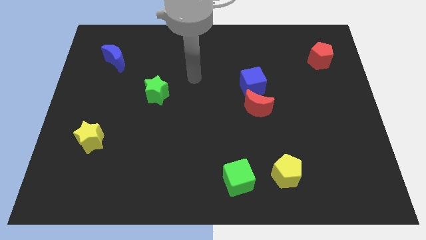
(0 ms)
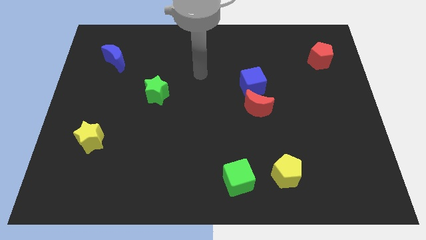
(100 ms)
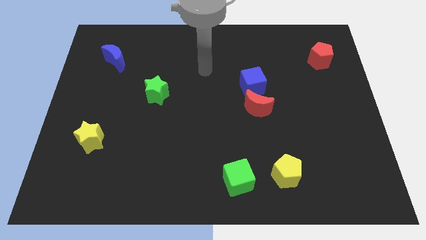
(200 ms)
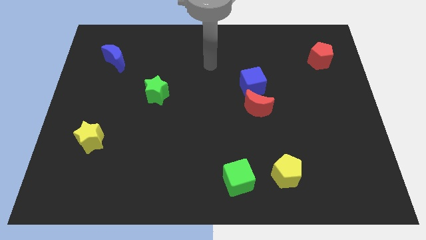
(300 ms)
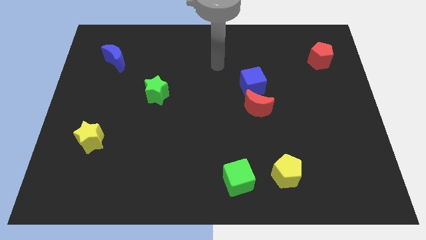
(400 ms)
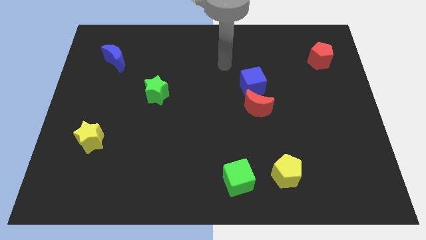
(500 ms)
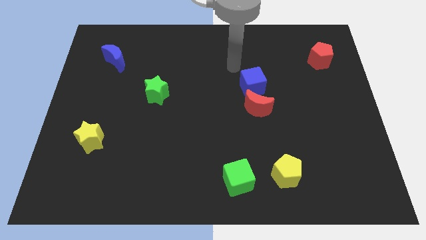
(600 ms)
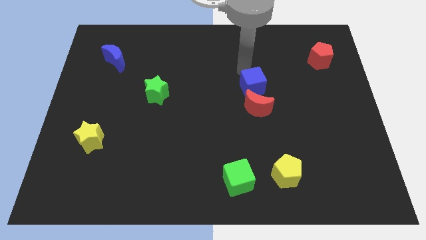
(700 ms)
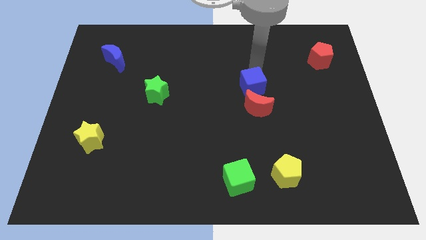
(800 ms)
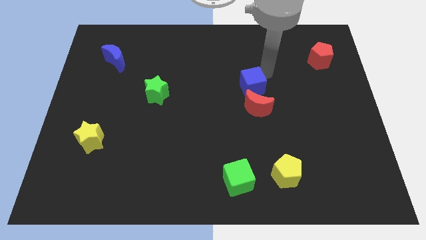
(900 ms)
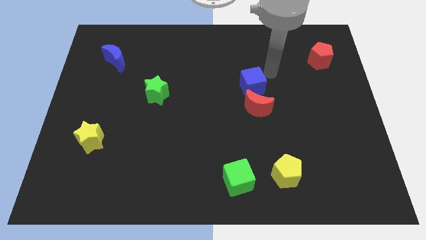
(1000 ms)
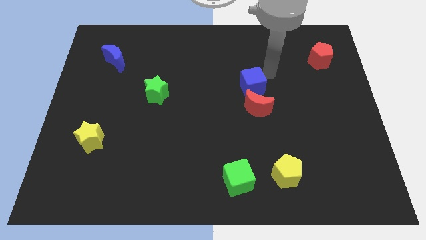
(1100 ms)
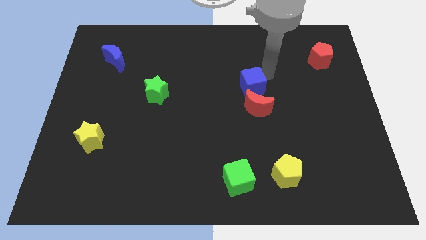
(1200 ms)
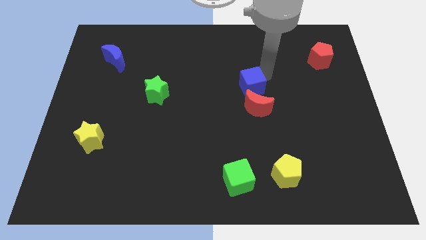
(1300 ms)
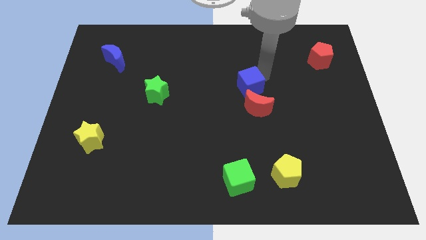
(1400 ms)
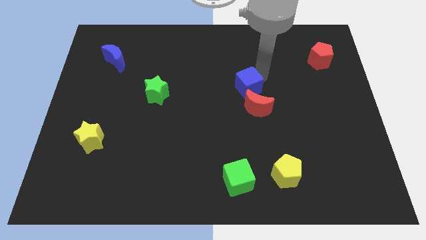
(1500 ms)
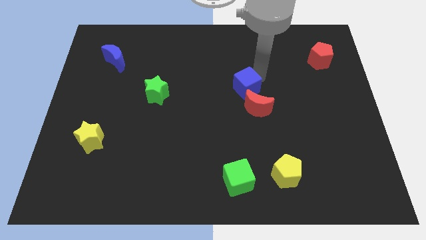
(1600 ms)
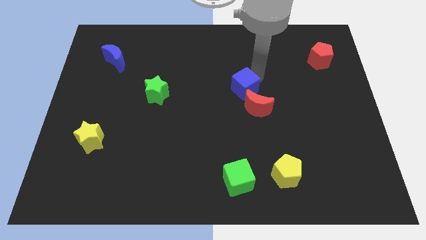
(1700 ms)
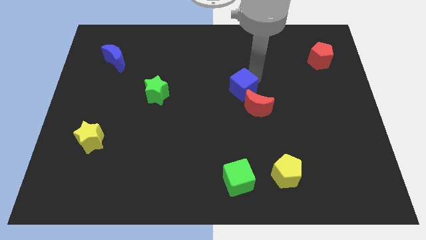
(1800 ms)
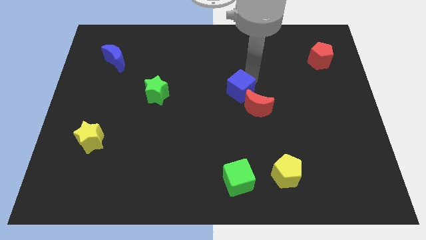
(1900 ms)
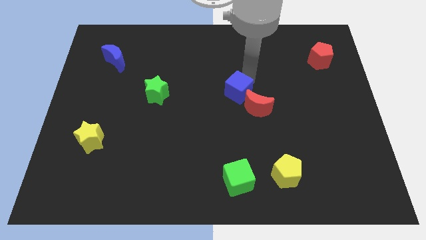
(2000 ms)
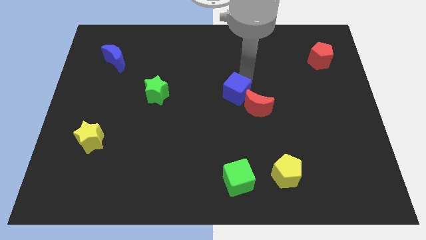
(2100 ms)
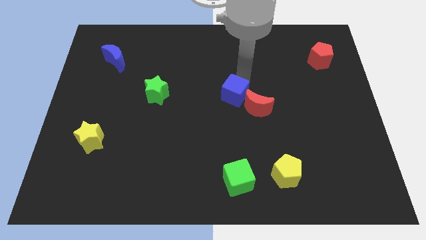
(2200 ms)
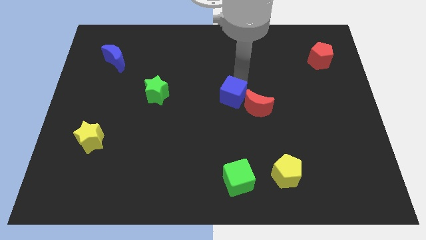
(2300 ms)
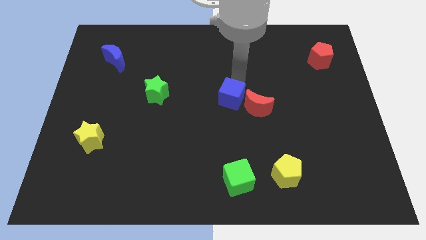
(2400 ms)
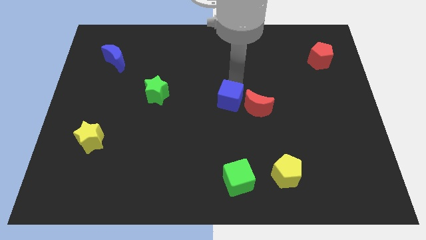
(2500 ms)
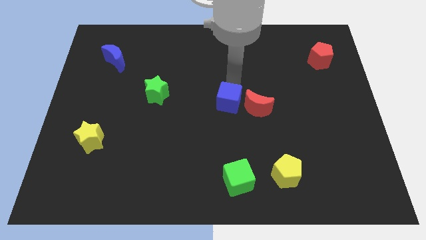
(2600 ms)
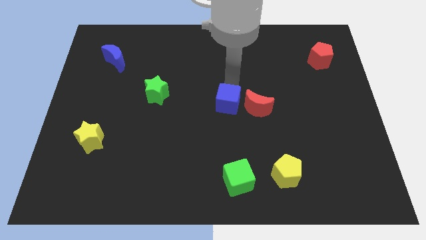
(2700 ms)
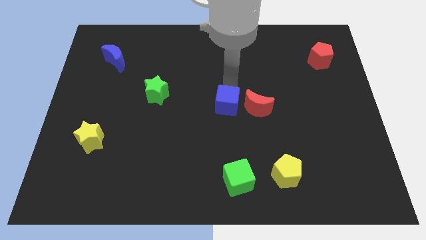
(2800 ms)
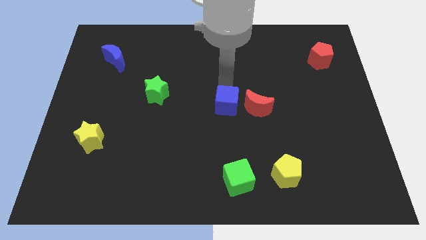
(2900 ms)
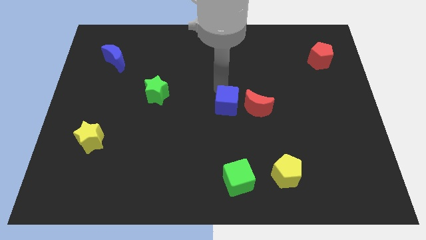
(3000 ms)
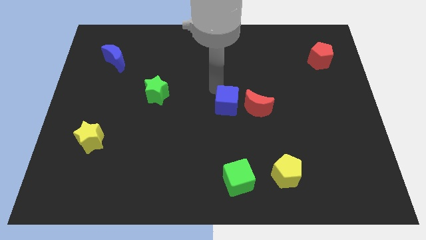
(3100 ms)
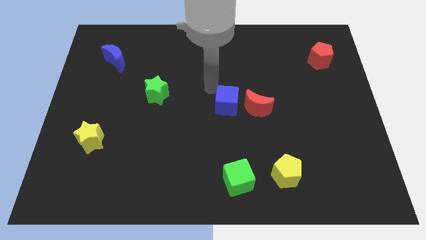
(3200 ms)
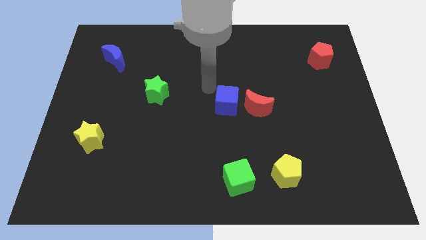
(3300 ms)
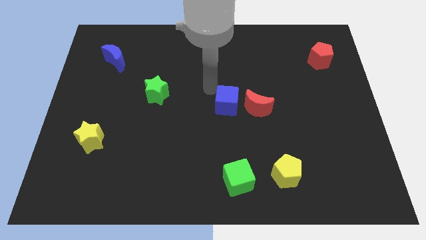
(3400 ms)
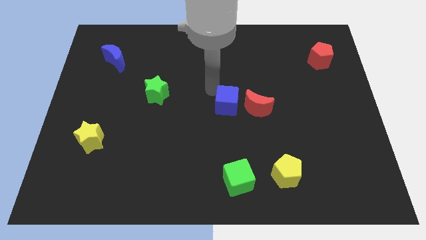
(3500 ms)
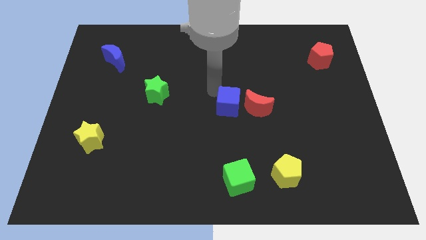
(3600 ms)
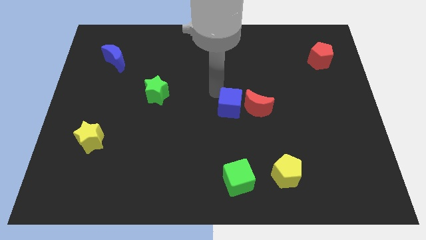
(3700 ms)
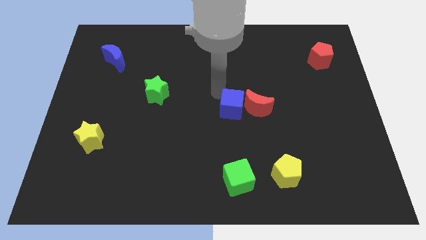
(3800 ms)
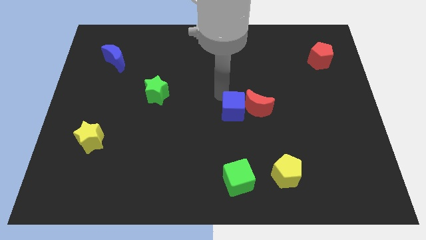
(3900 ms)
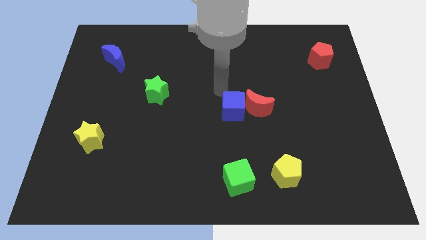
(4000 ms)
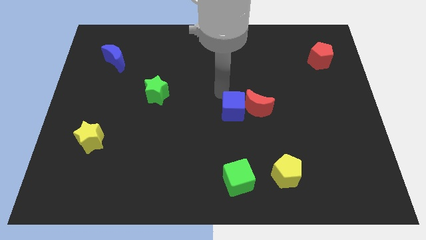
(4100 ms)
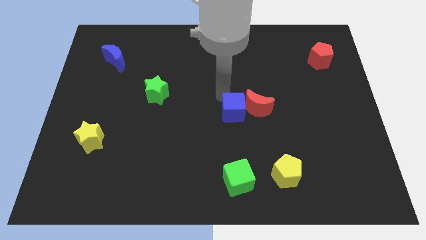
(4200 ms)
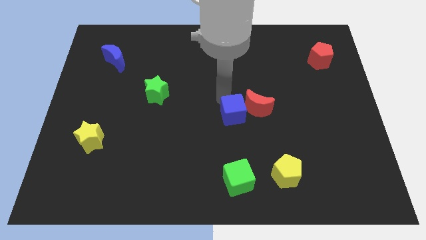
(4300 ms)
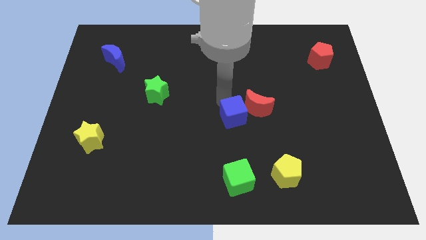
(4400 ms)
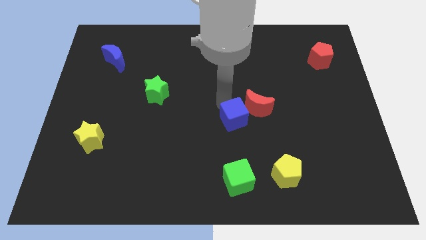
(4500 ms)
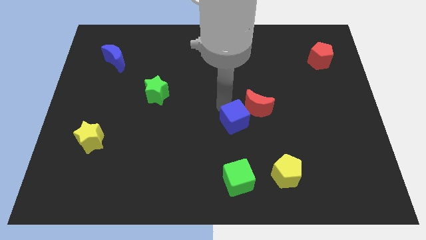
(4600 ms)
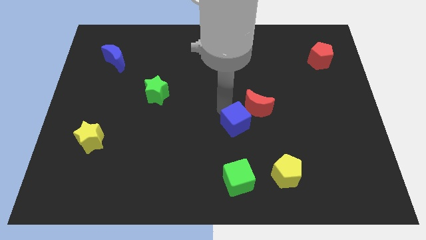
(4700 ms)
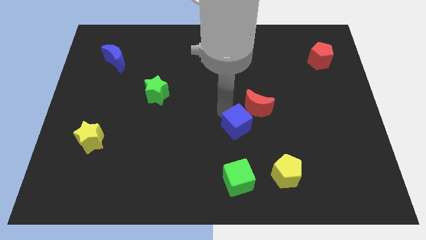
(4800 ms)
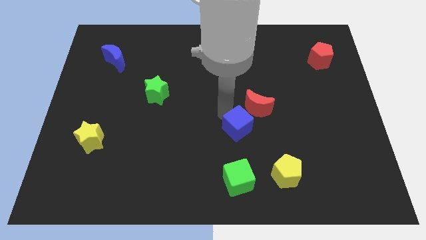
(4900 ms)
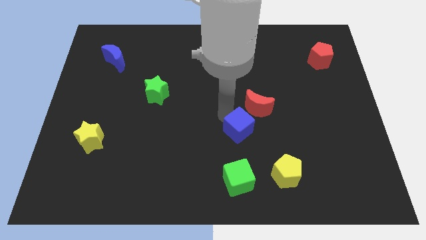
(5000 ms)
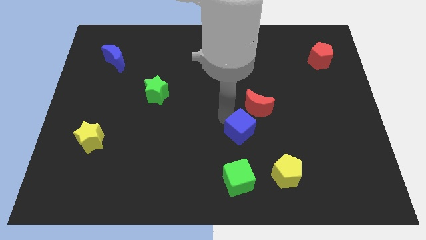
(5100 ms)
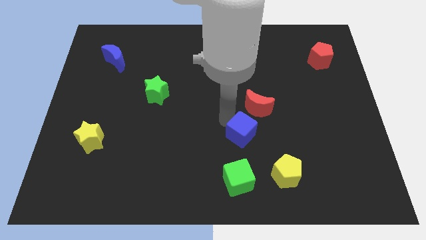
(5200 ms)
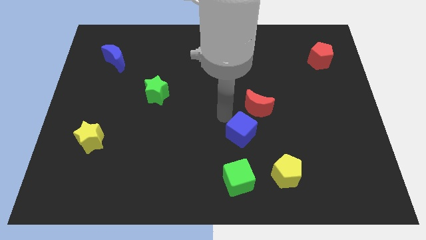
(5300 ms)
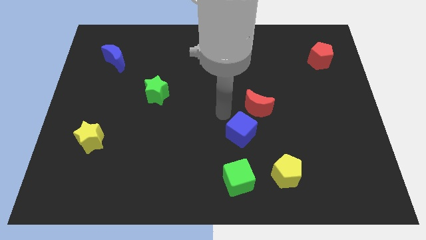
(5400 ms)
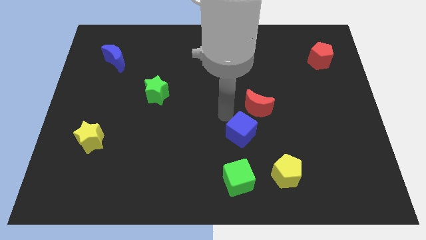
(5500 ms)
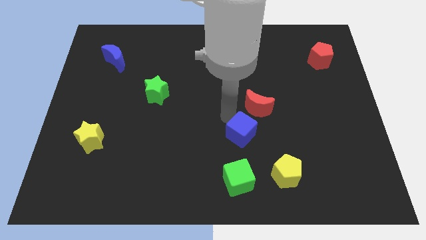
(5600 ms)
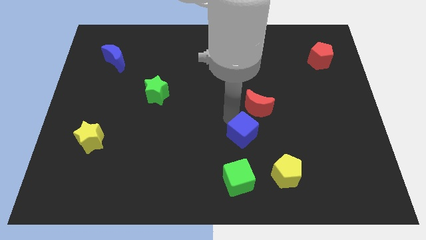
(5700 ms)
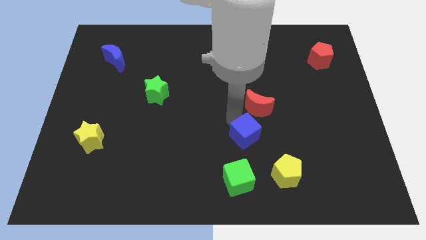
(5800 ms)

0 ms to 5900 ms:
push the blue cube to the top left of the yellow pentagon

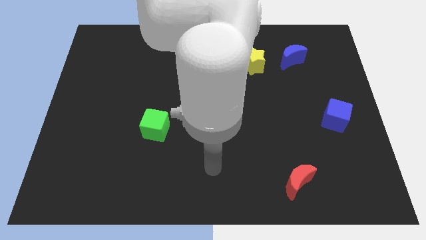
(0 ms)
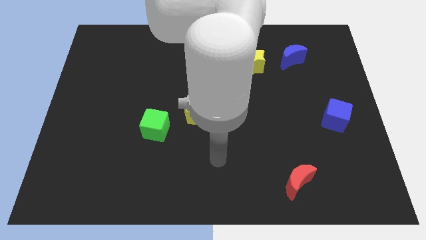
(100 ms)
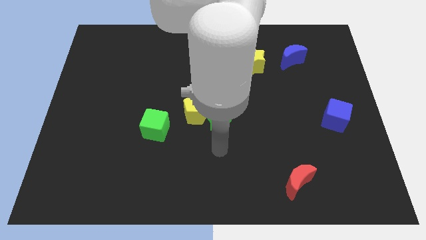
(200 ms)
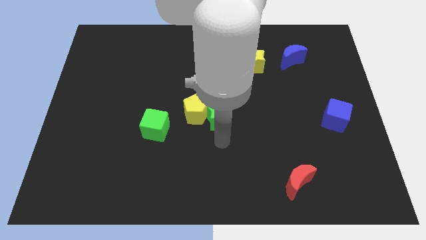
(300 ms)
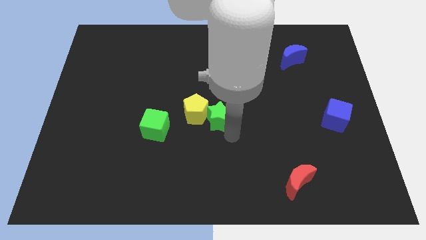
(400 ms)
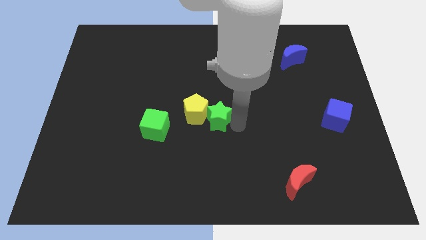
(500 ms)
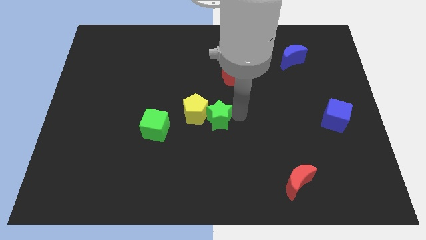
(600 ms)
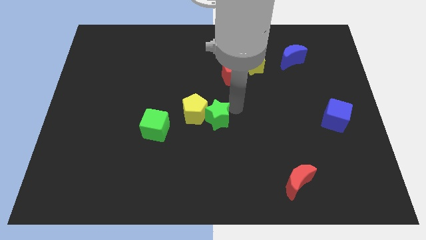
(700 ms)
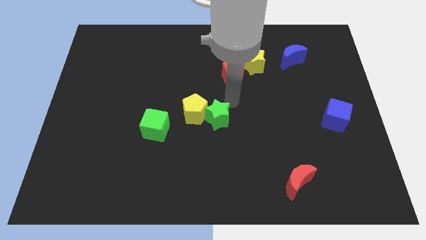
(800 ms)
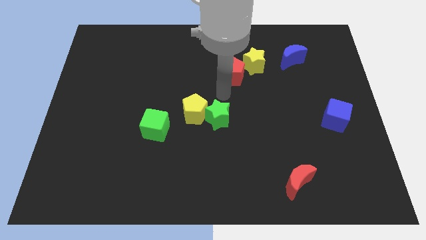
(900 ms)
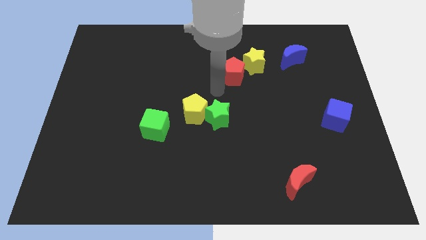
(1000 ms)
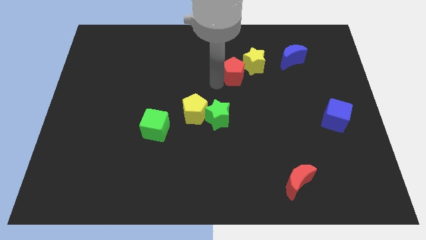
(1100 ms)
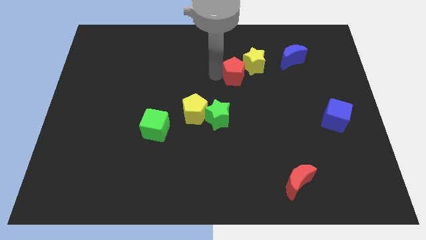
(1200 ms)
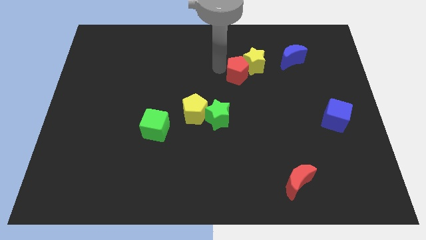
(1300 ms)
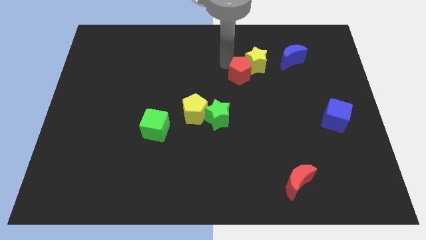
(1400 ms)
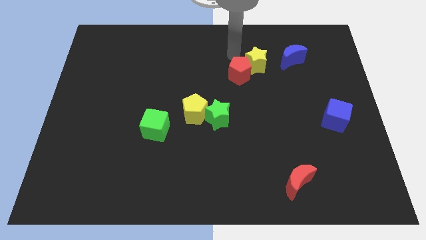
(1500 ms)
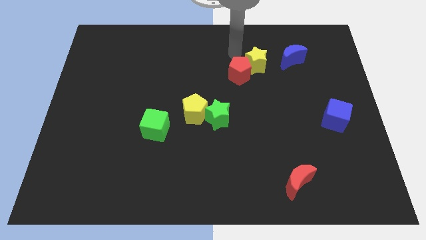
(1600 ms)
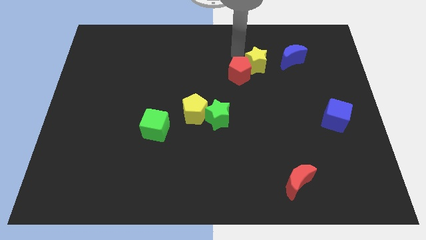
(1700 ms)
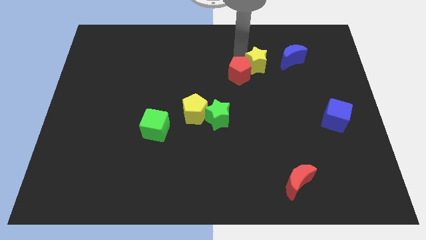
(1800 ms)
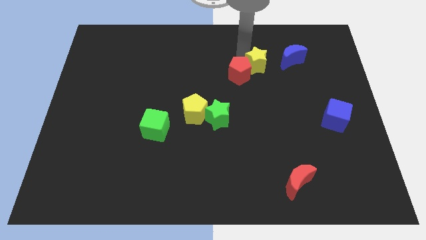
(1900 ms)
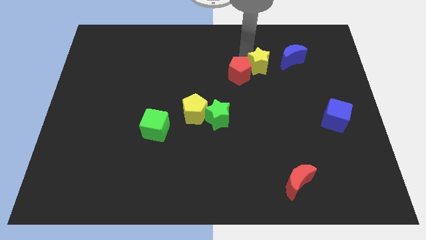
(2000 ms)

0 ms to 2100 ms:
put the yellow star to the bottom left of the blue moon
